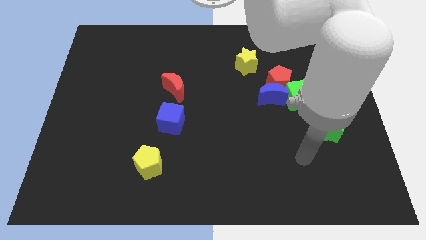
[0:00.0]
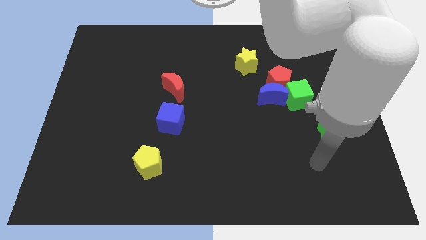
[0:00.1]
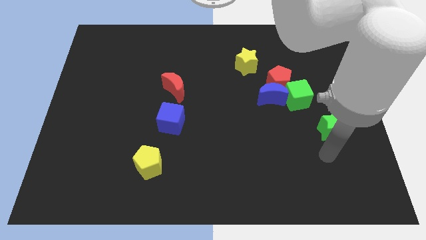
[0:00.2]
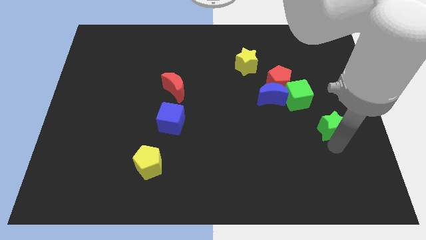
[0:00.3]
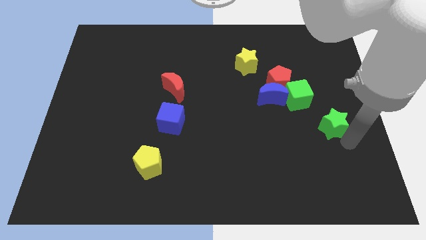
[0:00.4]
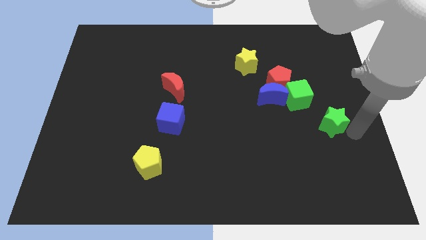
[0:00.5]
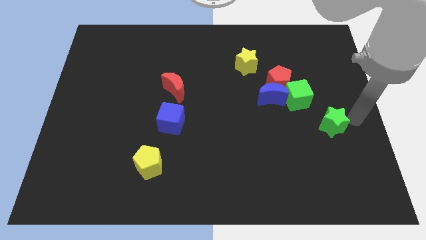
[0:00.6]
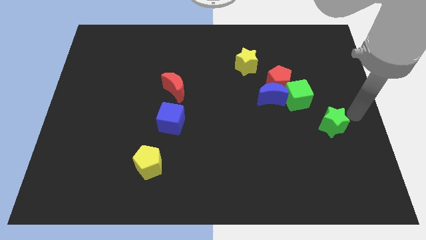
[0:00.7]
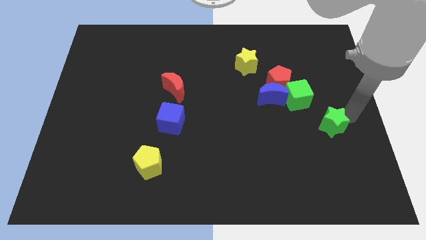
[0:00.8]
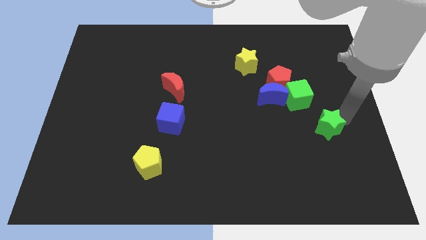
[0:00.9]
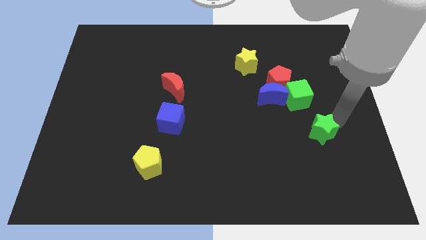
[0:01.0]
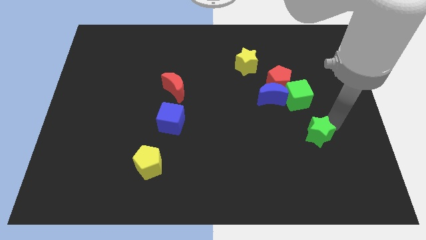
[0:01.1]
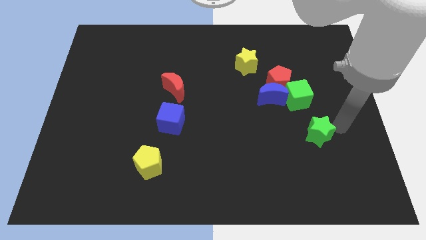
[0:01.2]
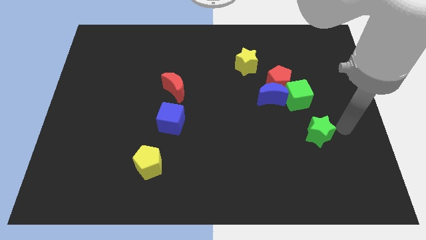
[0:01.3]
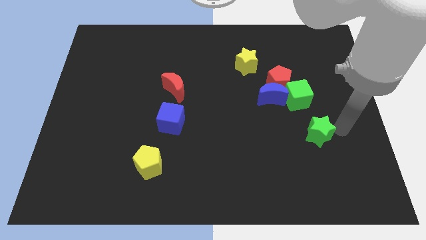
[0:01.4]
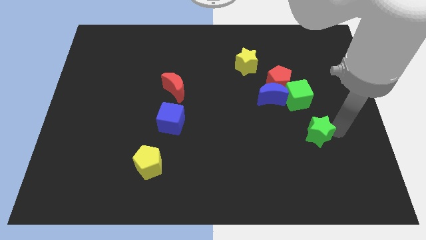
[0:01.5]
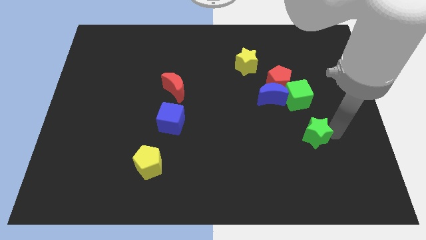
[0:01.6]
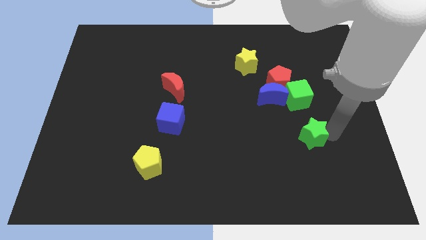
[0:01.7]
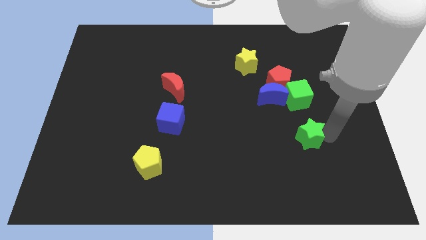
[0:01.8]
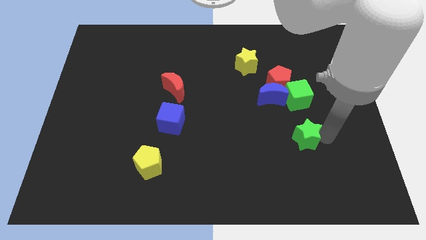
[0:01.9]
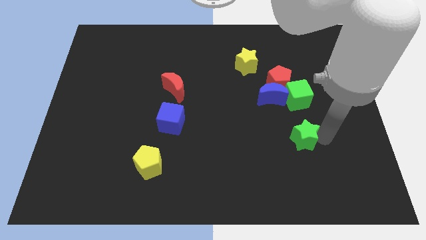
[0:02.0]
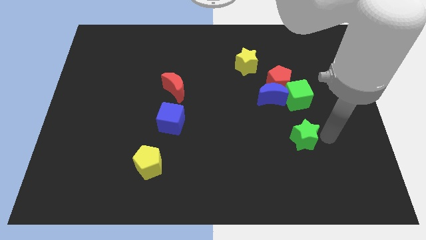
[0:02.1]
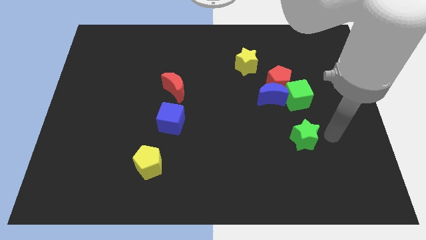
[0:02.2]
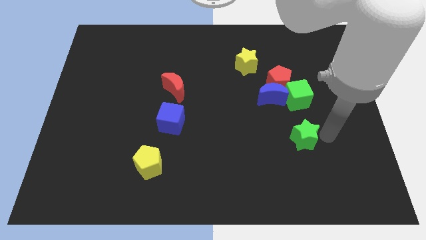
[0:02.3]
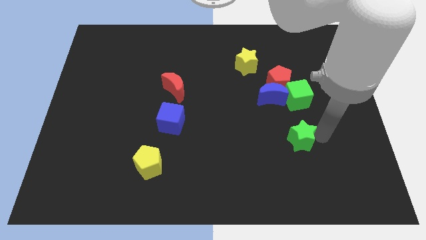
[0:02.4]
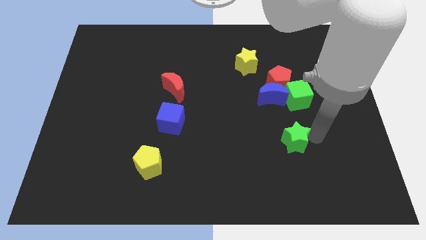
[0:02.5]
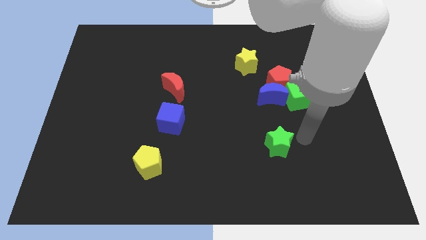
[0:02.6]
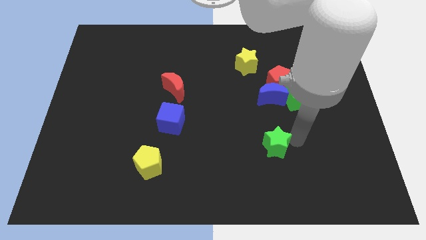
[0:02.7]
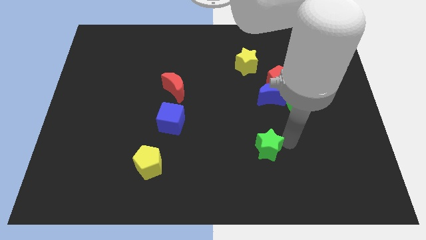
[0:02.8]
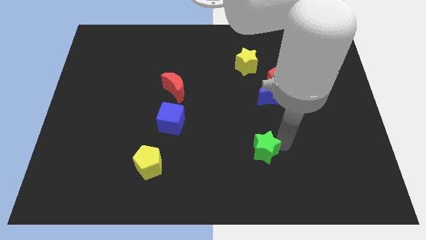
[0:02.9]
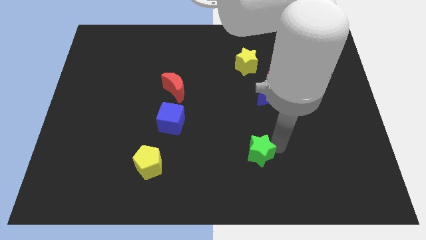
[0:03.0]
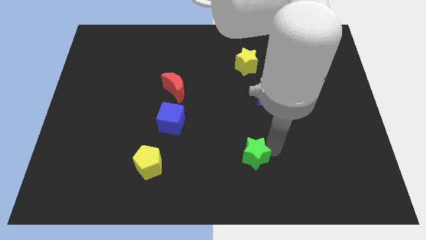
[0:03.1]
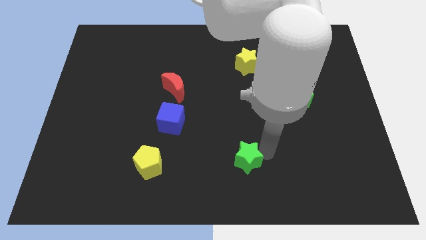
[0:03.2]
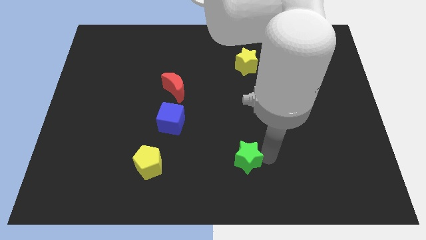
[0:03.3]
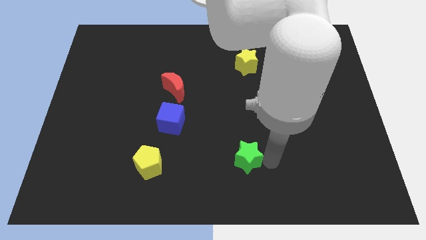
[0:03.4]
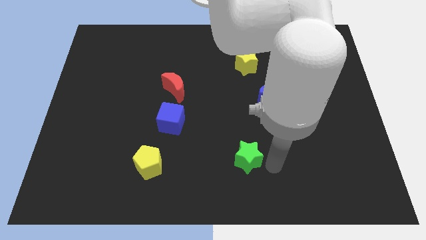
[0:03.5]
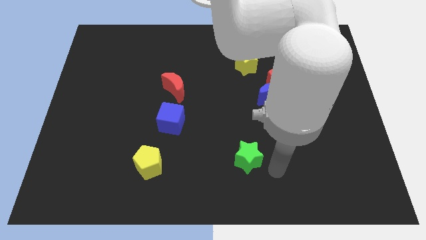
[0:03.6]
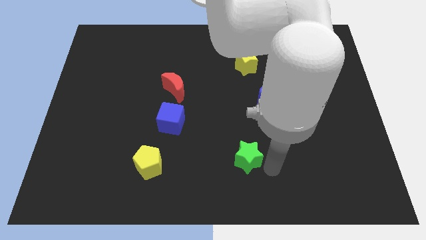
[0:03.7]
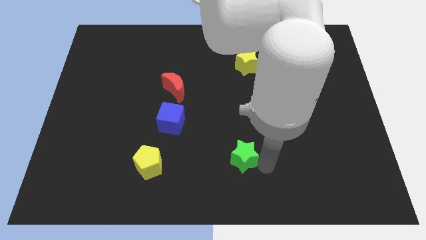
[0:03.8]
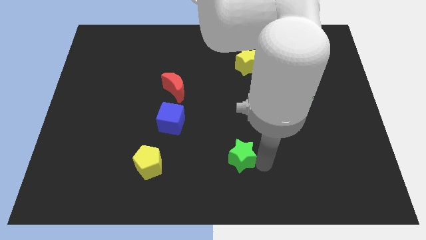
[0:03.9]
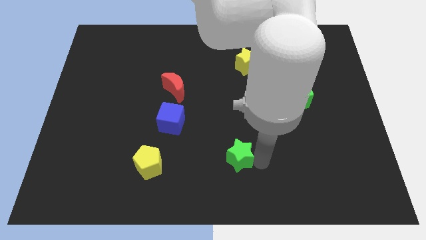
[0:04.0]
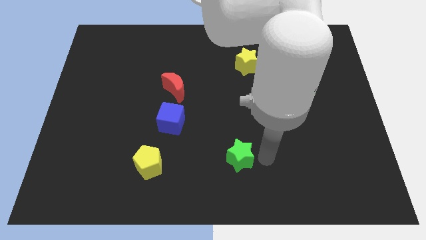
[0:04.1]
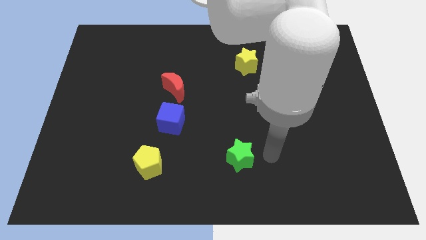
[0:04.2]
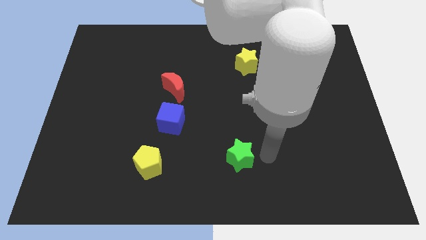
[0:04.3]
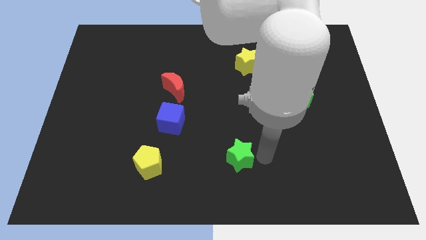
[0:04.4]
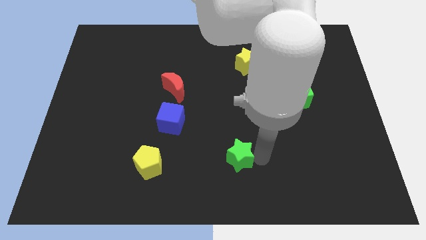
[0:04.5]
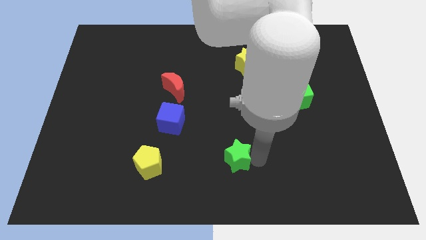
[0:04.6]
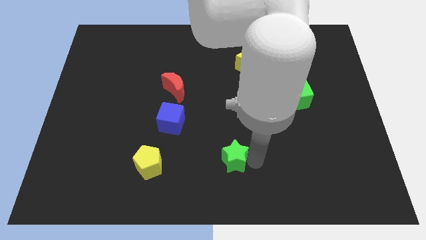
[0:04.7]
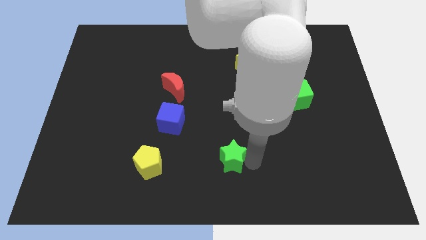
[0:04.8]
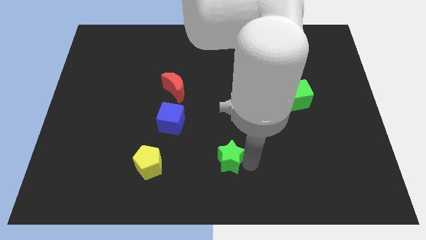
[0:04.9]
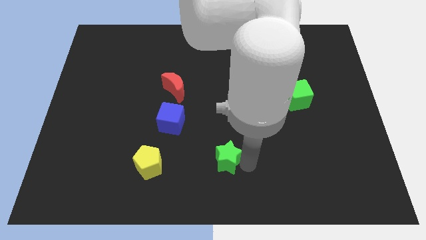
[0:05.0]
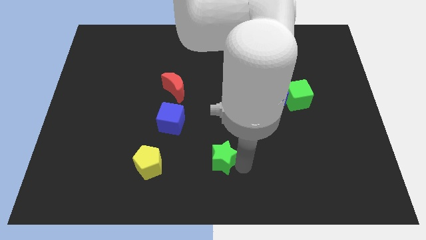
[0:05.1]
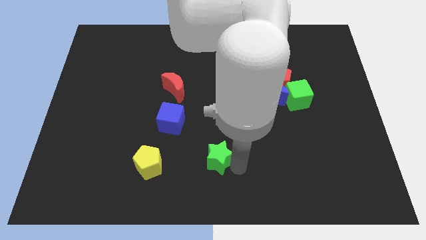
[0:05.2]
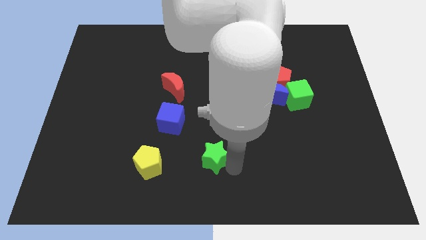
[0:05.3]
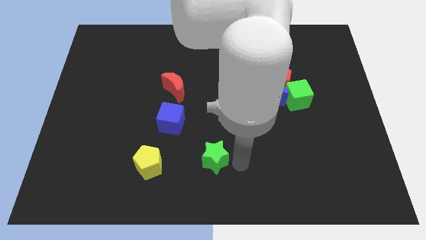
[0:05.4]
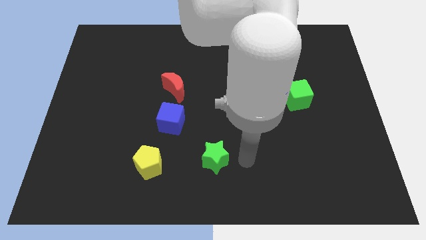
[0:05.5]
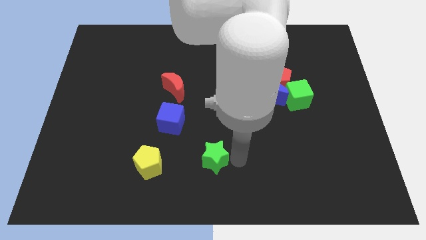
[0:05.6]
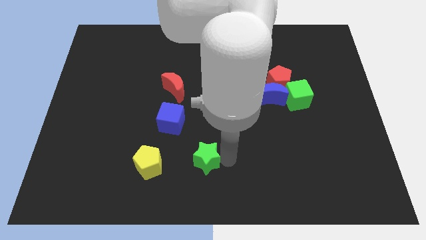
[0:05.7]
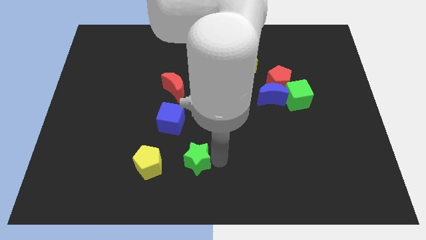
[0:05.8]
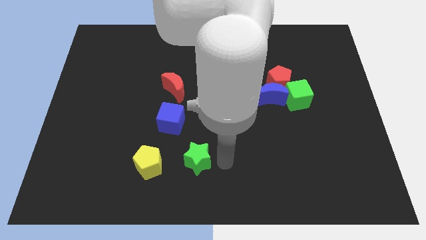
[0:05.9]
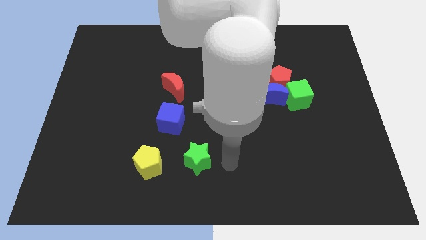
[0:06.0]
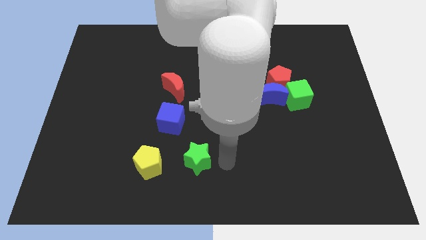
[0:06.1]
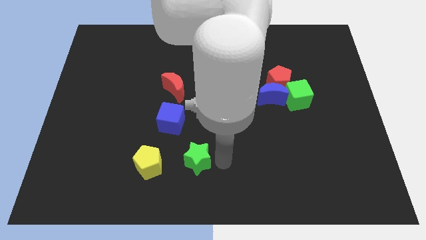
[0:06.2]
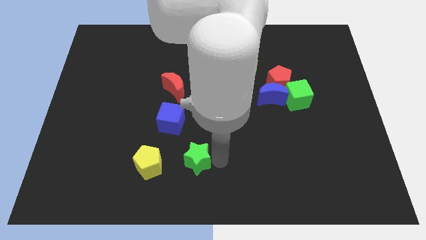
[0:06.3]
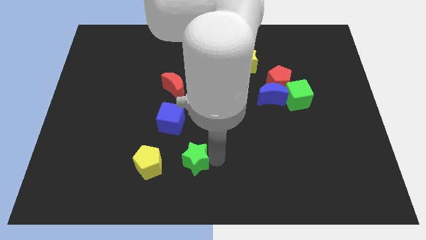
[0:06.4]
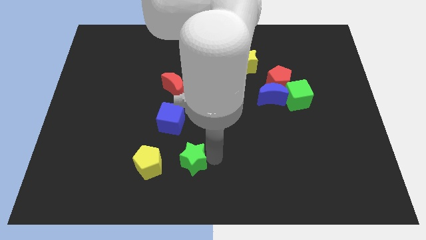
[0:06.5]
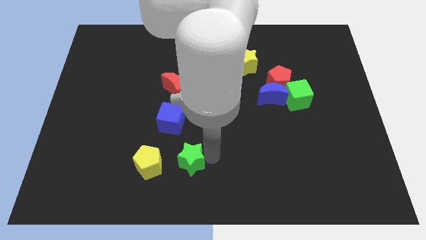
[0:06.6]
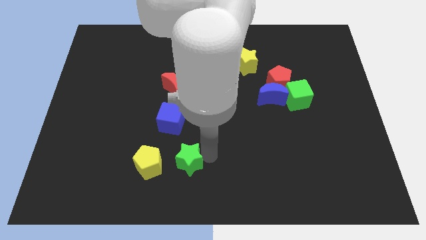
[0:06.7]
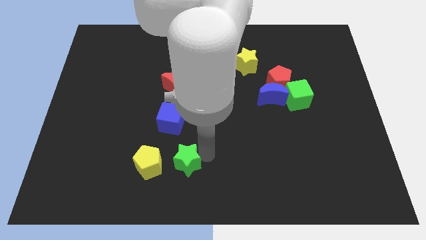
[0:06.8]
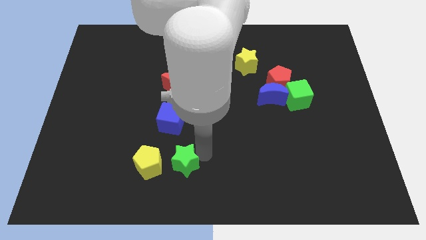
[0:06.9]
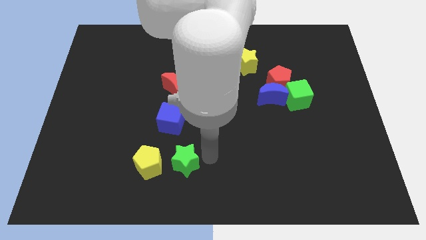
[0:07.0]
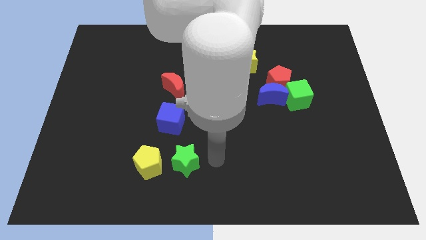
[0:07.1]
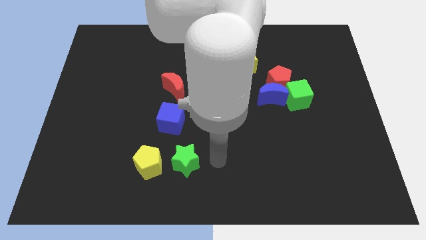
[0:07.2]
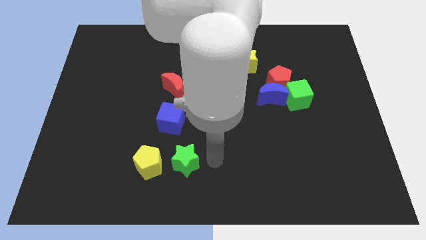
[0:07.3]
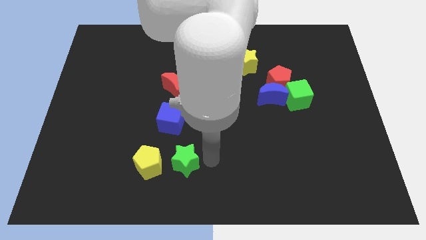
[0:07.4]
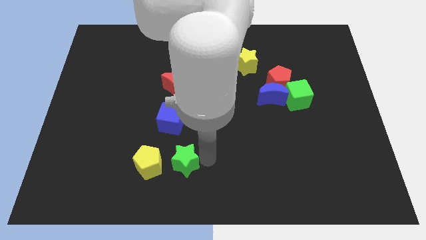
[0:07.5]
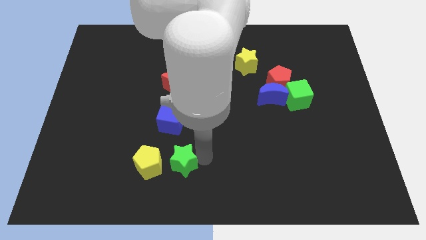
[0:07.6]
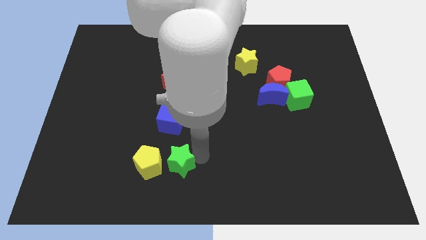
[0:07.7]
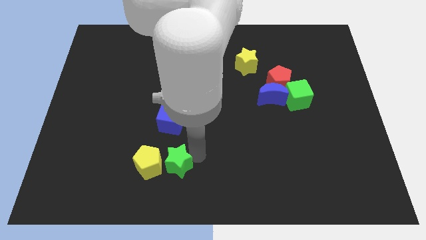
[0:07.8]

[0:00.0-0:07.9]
slide the green star to the yellow pentagon

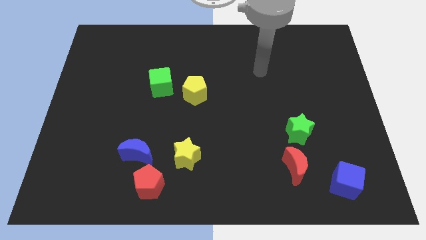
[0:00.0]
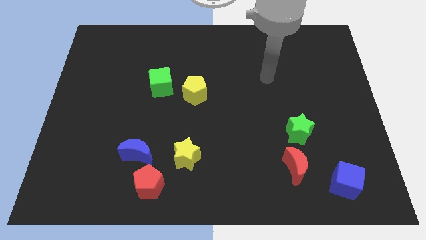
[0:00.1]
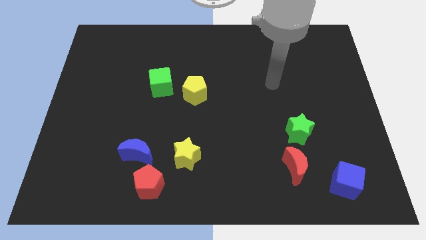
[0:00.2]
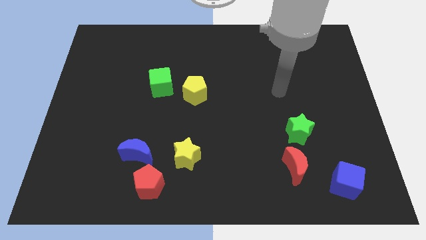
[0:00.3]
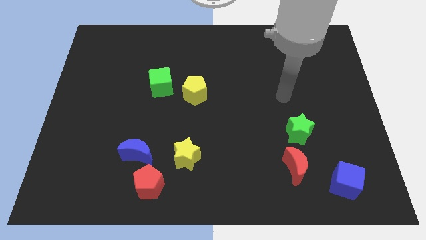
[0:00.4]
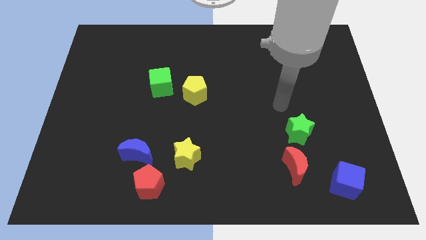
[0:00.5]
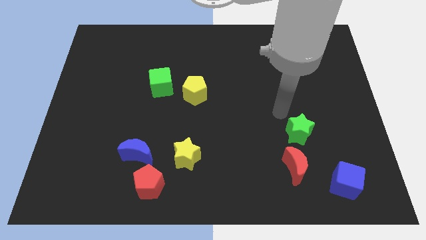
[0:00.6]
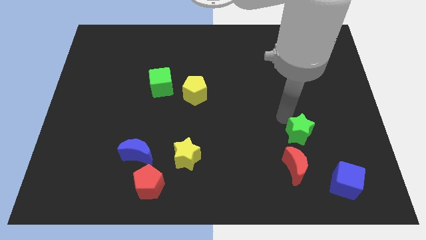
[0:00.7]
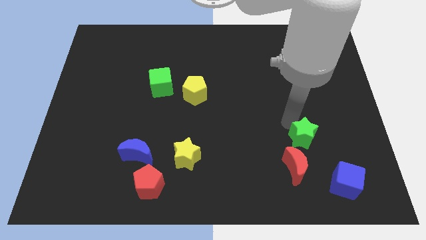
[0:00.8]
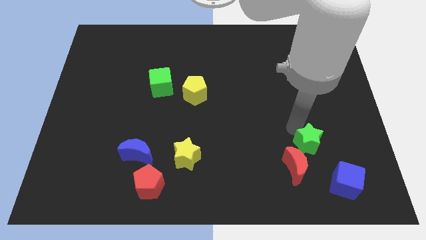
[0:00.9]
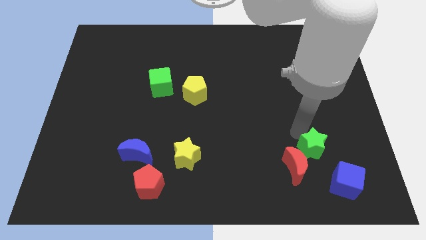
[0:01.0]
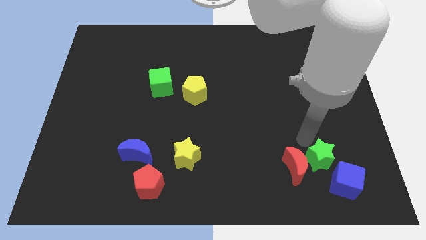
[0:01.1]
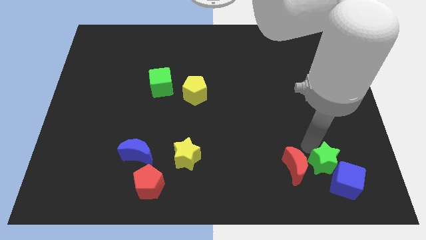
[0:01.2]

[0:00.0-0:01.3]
slide the green star towards the blue cube
